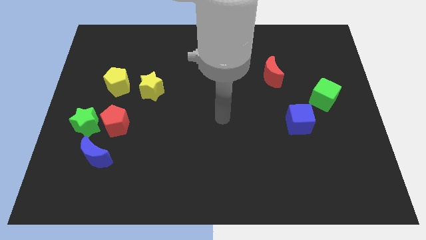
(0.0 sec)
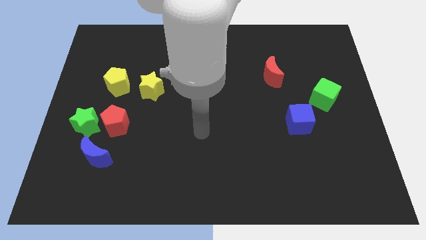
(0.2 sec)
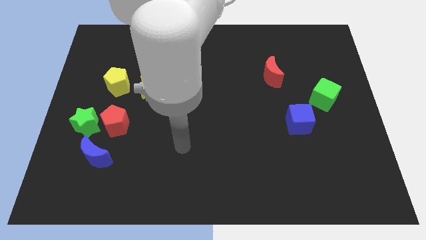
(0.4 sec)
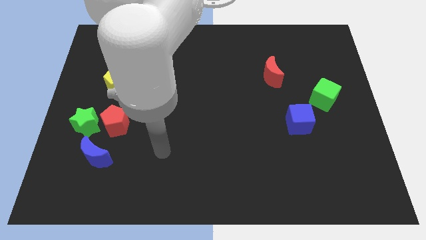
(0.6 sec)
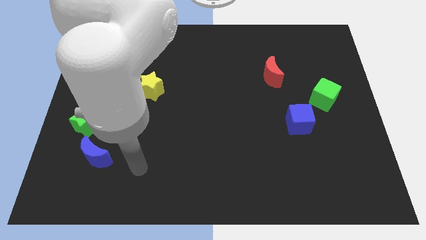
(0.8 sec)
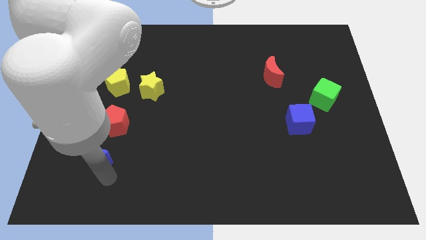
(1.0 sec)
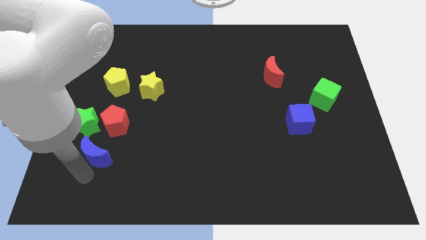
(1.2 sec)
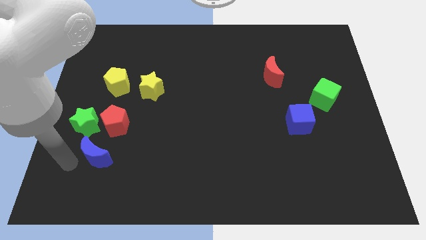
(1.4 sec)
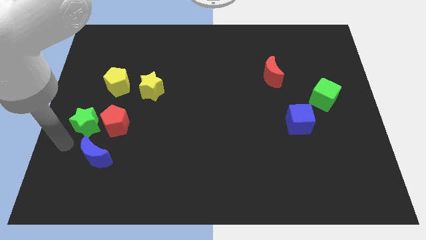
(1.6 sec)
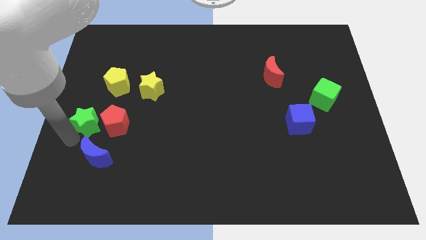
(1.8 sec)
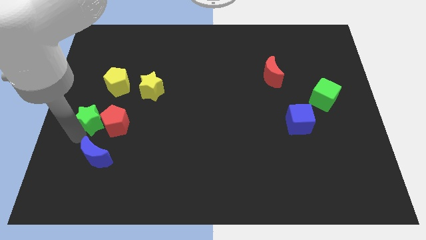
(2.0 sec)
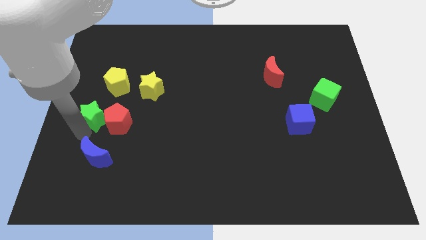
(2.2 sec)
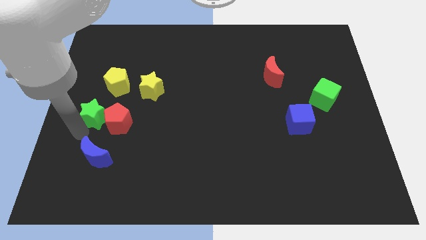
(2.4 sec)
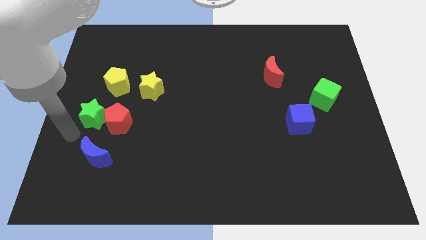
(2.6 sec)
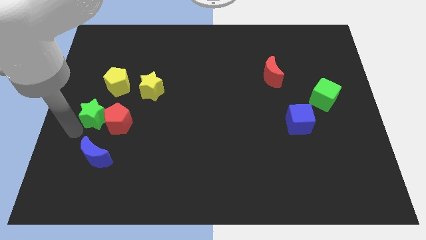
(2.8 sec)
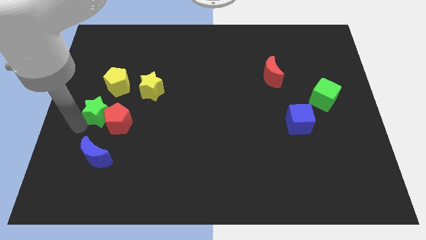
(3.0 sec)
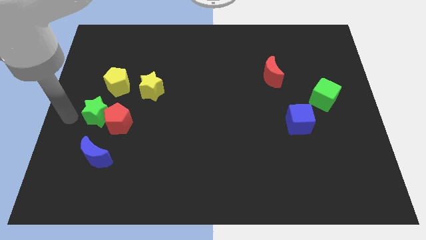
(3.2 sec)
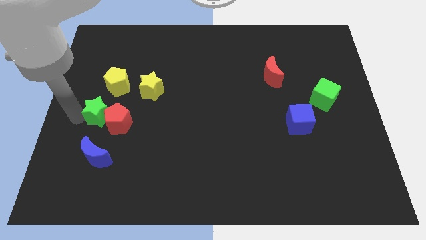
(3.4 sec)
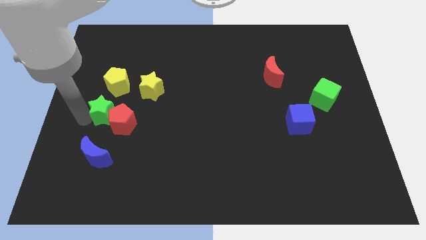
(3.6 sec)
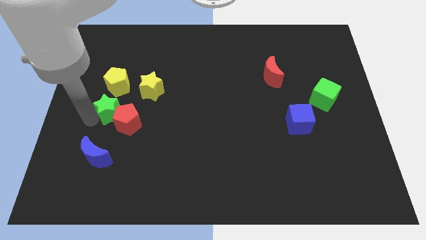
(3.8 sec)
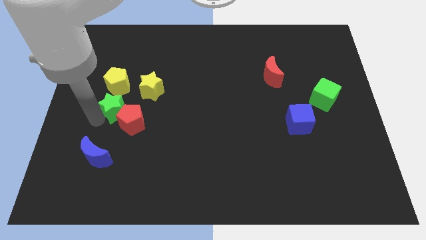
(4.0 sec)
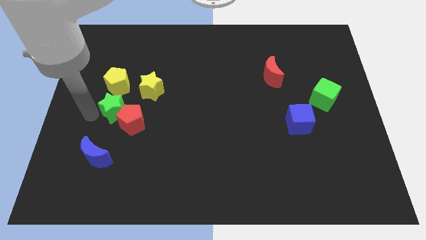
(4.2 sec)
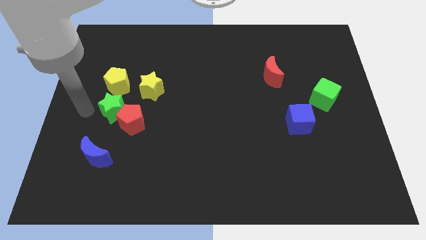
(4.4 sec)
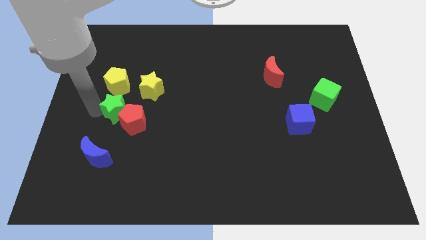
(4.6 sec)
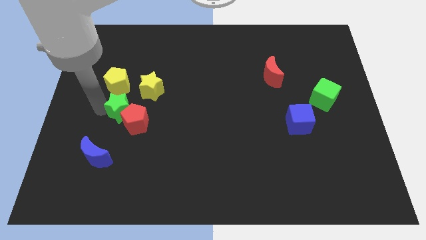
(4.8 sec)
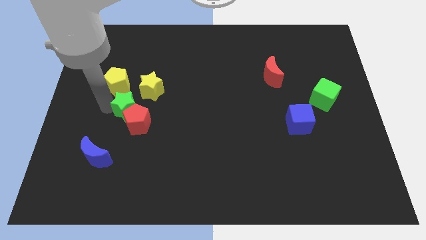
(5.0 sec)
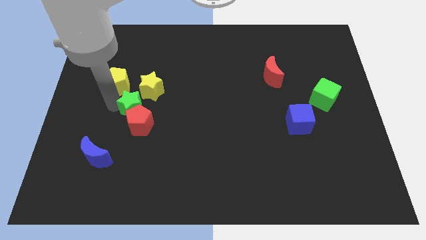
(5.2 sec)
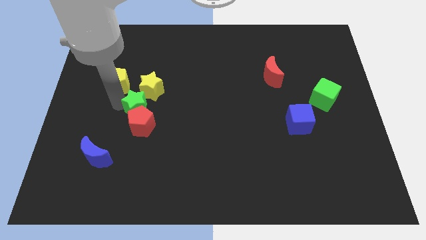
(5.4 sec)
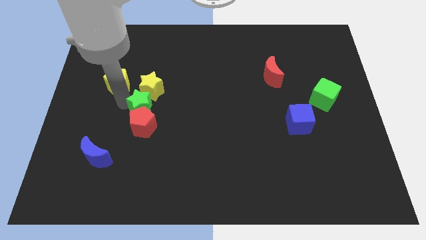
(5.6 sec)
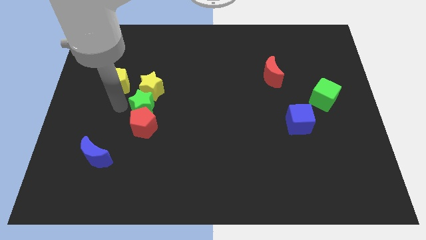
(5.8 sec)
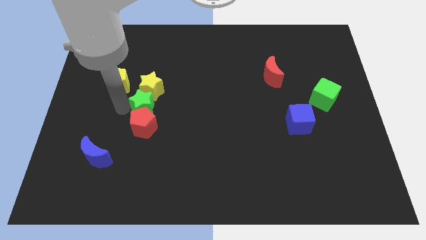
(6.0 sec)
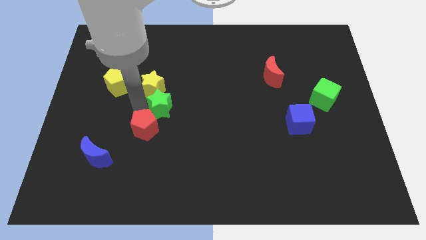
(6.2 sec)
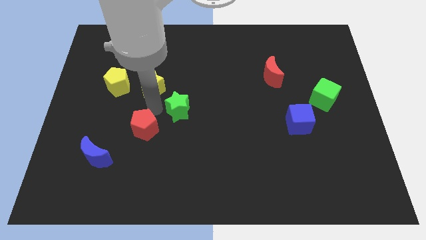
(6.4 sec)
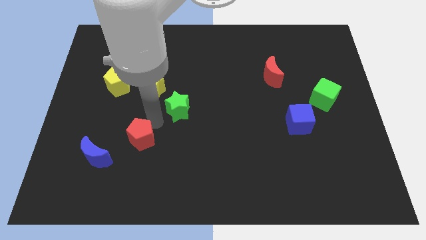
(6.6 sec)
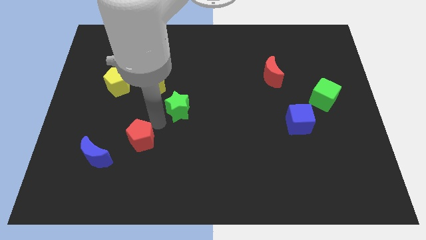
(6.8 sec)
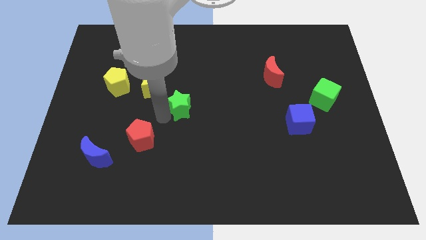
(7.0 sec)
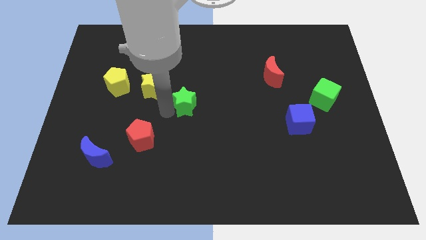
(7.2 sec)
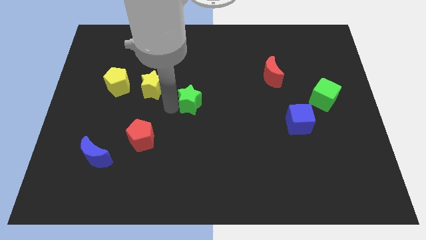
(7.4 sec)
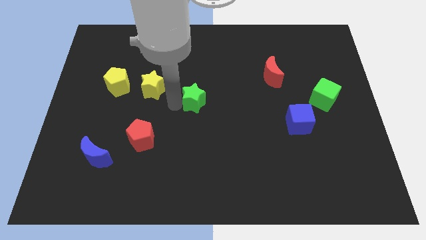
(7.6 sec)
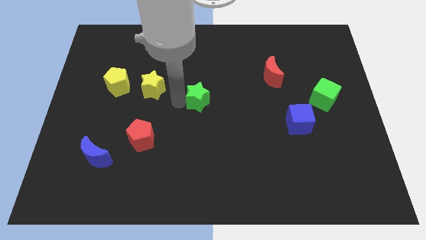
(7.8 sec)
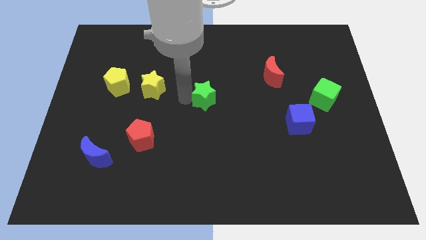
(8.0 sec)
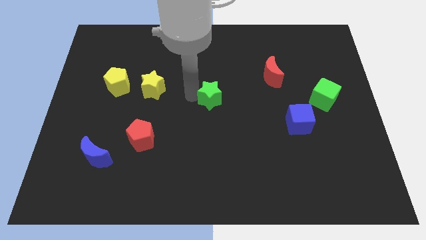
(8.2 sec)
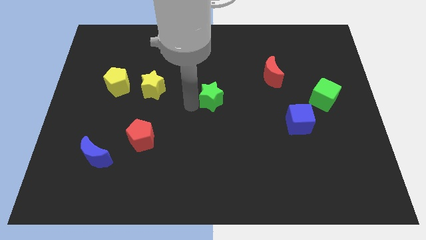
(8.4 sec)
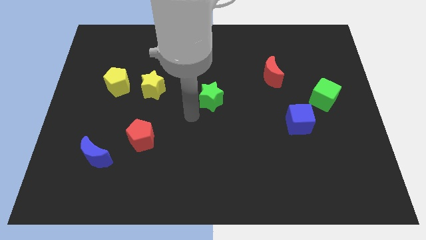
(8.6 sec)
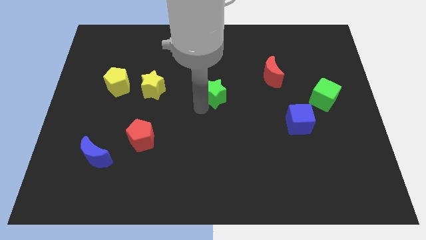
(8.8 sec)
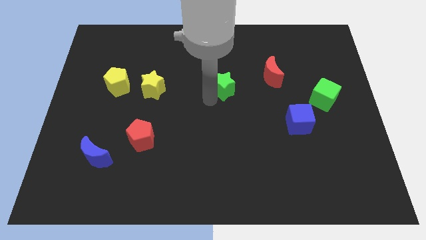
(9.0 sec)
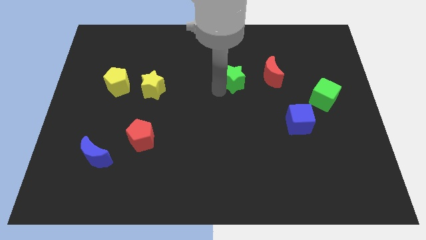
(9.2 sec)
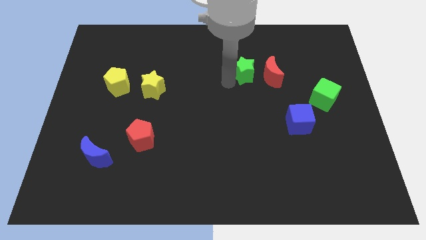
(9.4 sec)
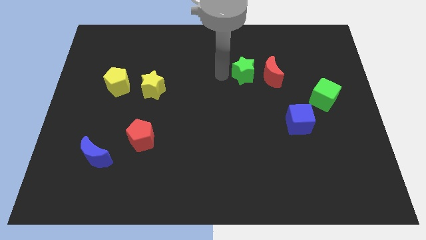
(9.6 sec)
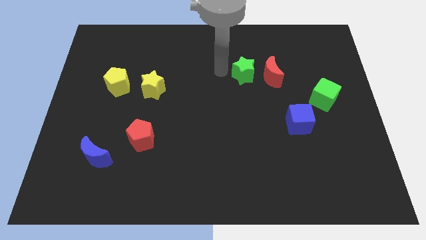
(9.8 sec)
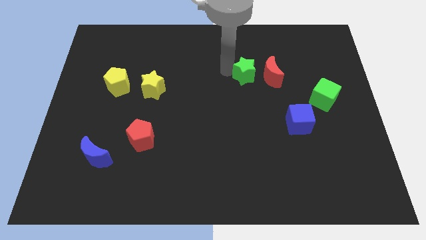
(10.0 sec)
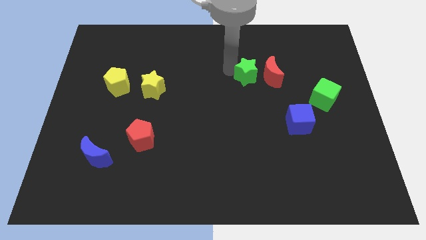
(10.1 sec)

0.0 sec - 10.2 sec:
put the green star to the red moon

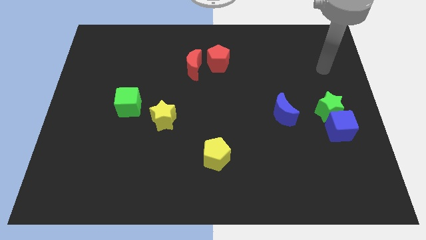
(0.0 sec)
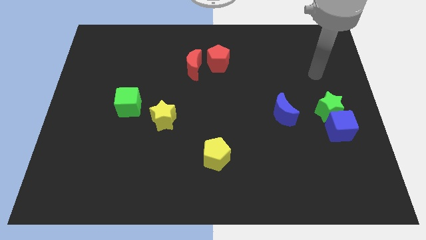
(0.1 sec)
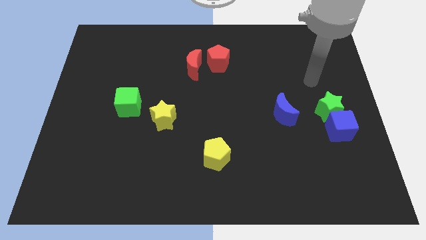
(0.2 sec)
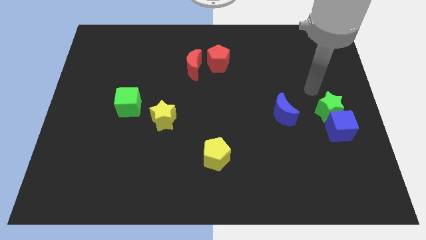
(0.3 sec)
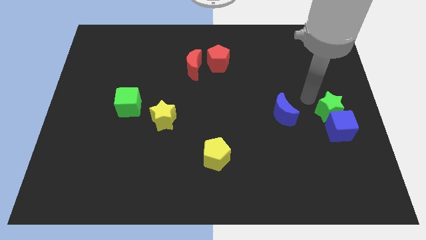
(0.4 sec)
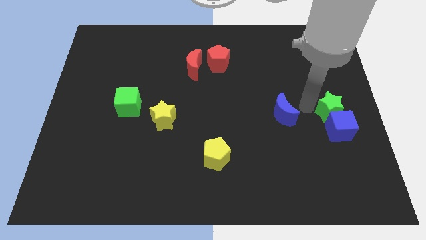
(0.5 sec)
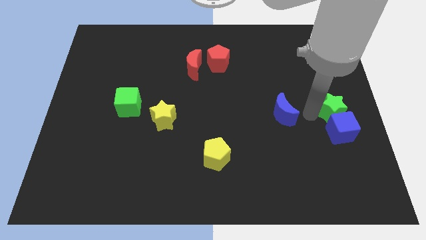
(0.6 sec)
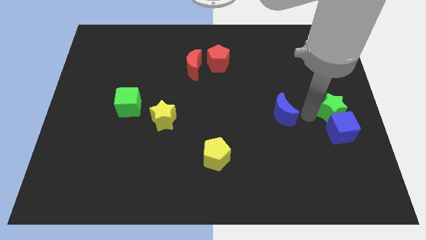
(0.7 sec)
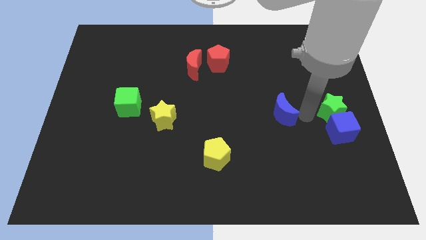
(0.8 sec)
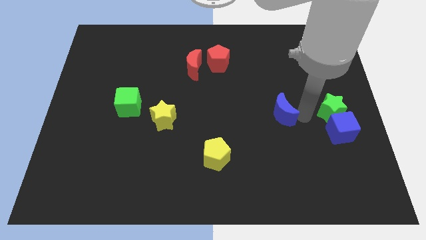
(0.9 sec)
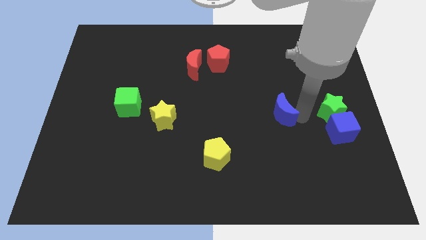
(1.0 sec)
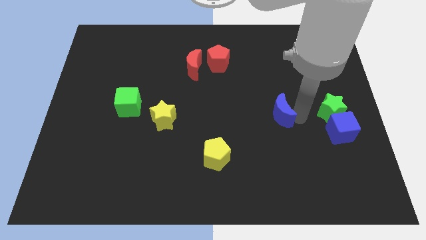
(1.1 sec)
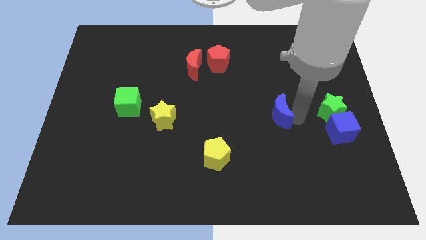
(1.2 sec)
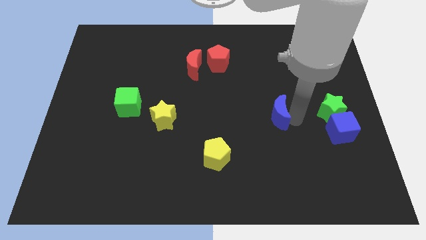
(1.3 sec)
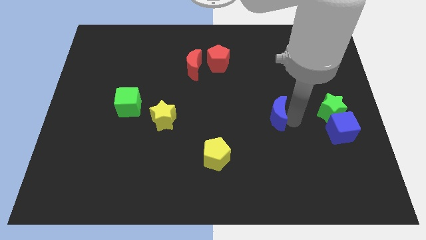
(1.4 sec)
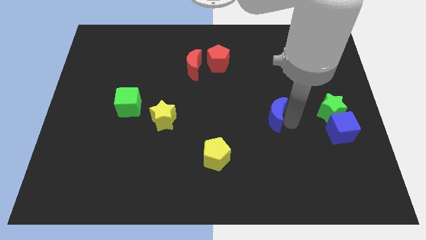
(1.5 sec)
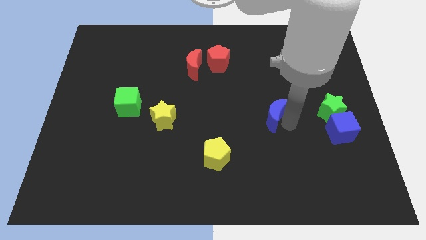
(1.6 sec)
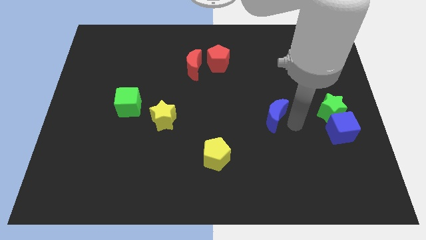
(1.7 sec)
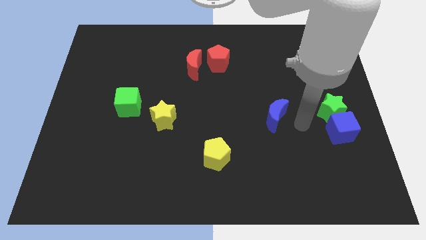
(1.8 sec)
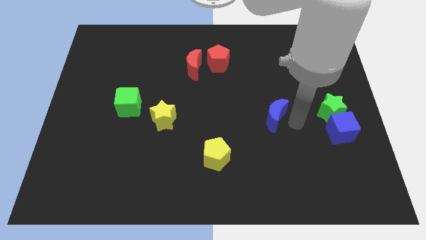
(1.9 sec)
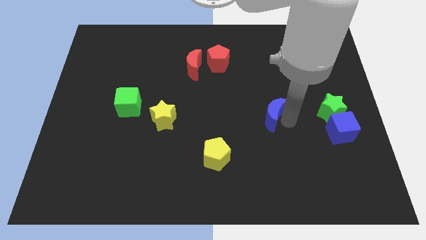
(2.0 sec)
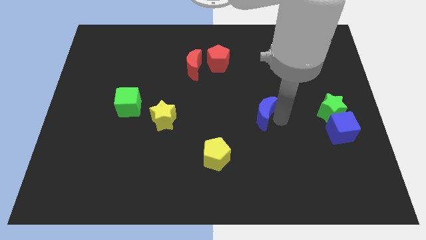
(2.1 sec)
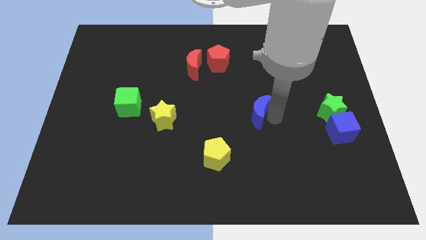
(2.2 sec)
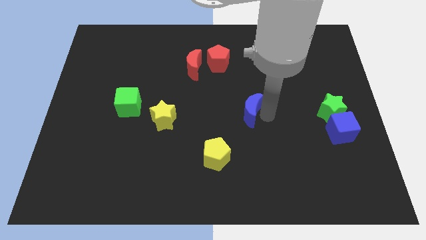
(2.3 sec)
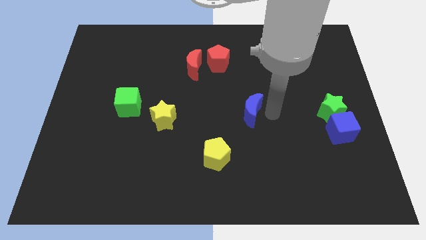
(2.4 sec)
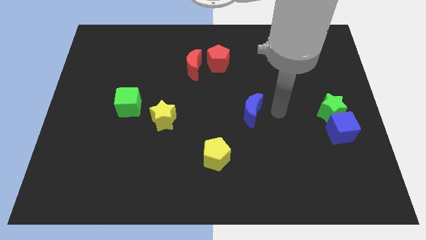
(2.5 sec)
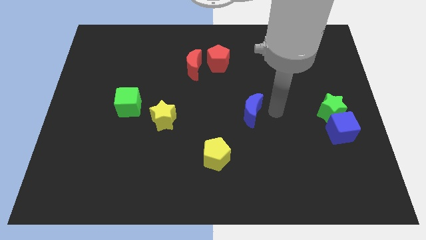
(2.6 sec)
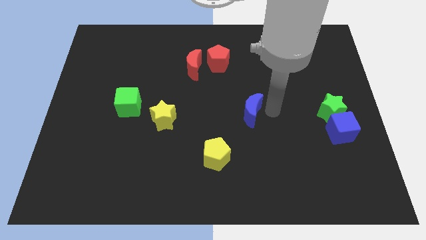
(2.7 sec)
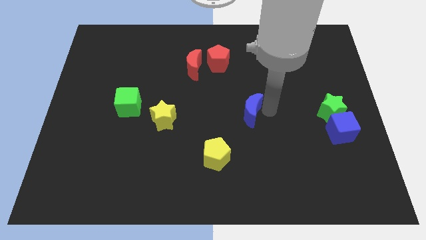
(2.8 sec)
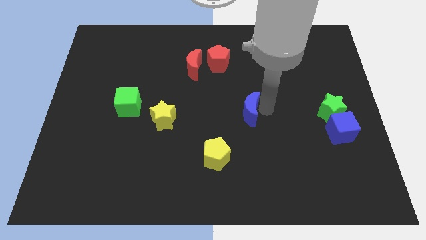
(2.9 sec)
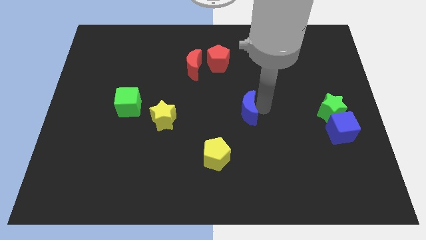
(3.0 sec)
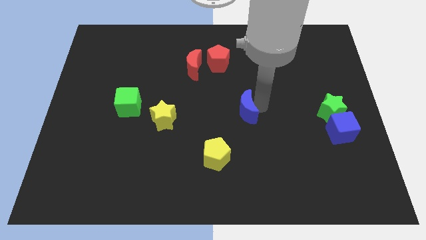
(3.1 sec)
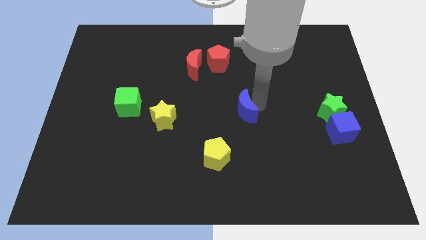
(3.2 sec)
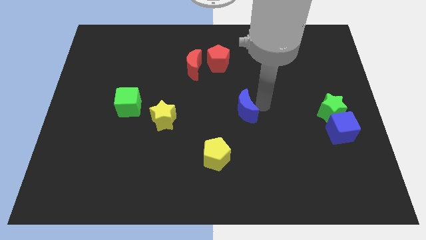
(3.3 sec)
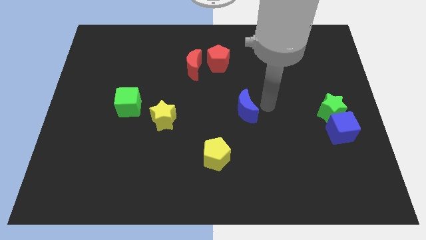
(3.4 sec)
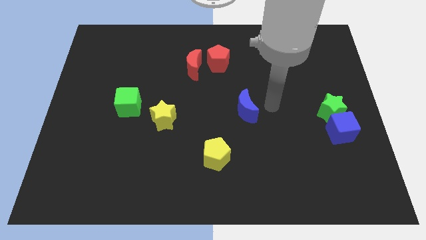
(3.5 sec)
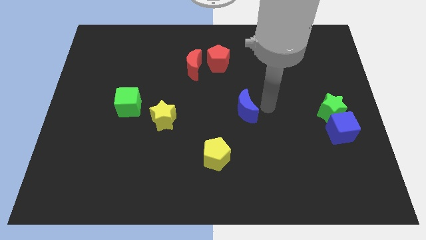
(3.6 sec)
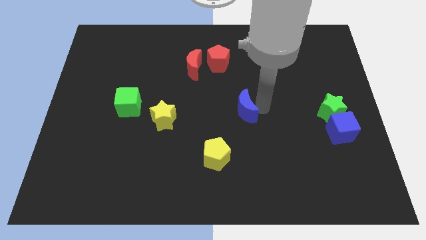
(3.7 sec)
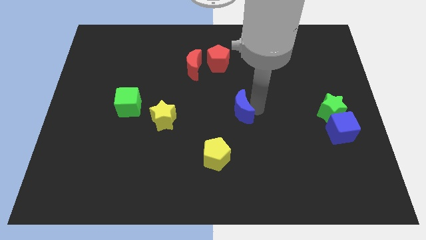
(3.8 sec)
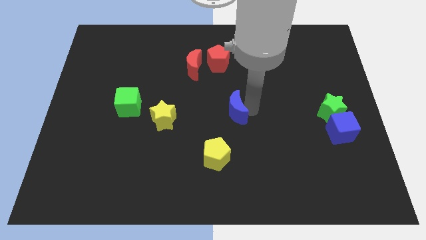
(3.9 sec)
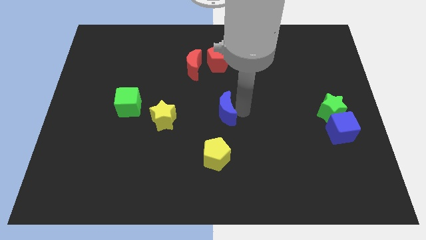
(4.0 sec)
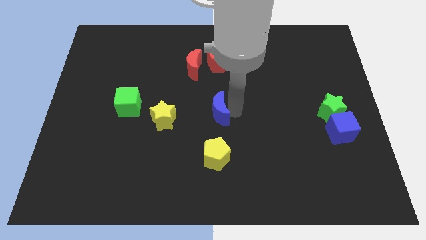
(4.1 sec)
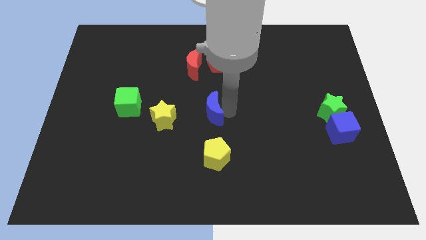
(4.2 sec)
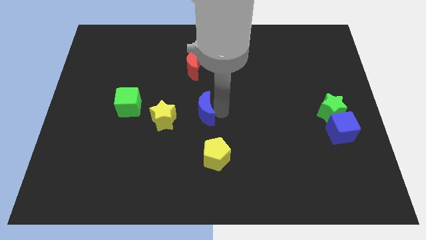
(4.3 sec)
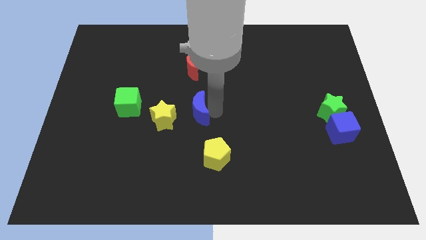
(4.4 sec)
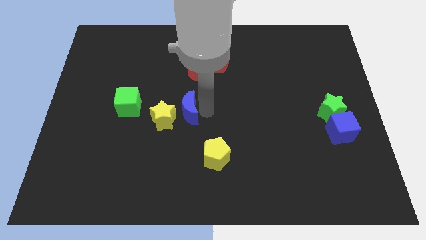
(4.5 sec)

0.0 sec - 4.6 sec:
put the blue moon next to the yellow star
